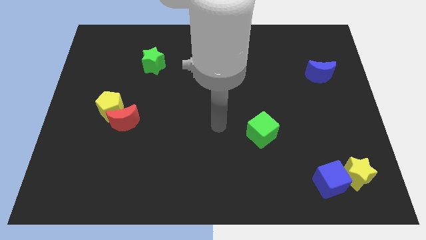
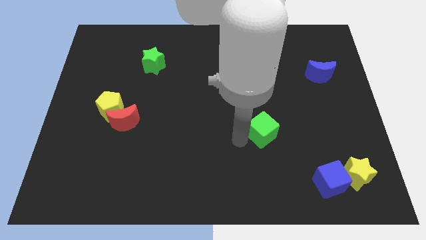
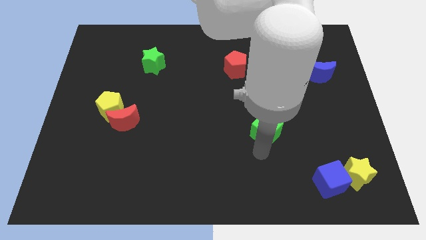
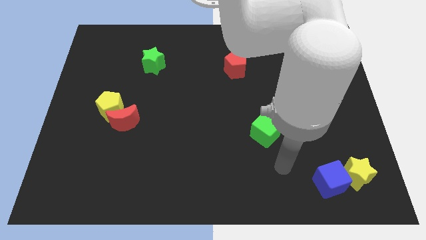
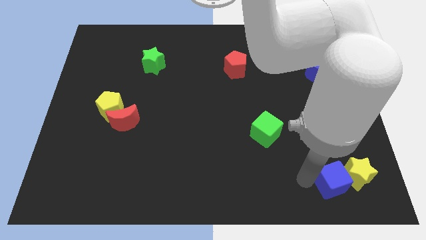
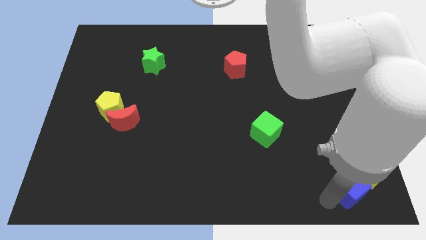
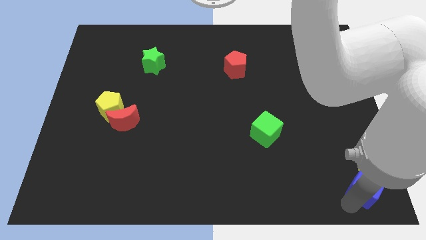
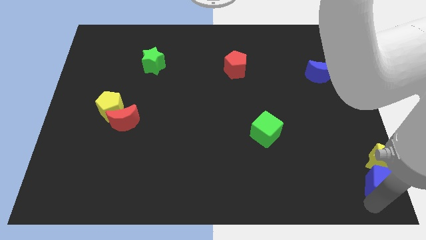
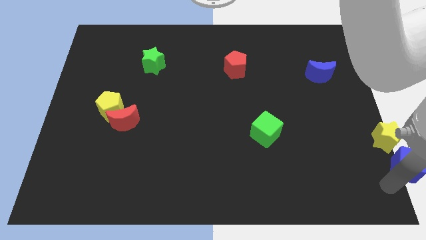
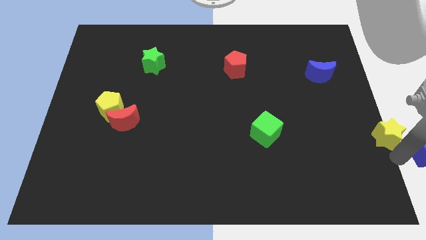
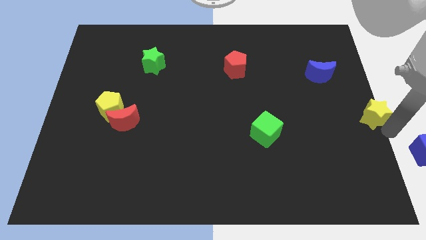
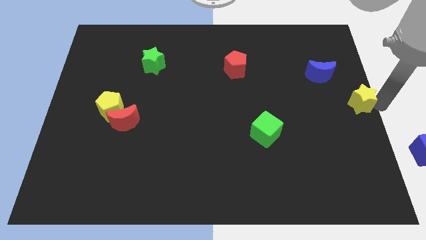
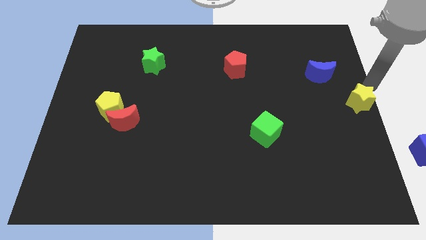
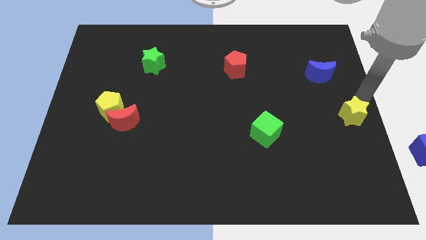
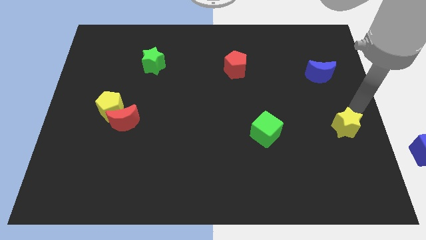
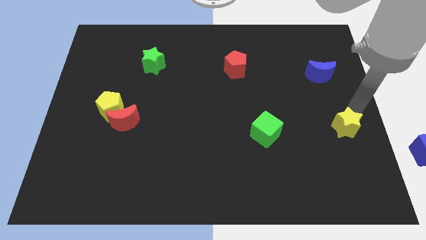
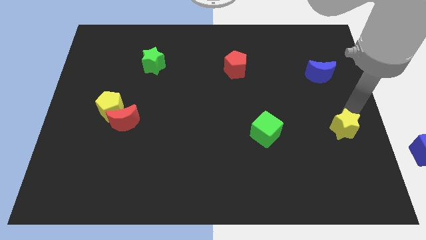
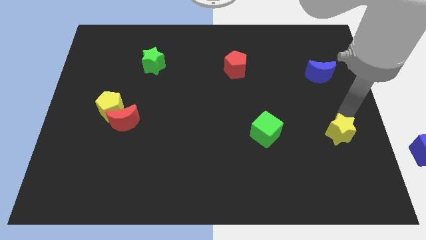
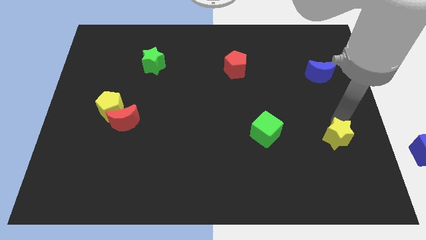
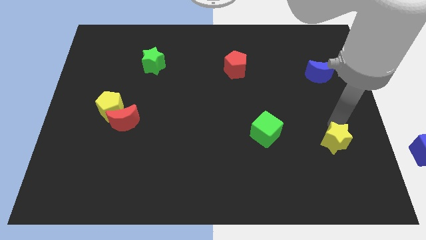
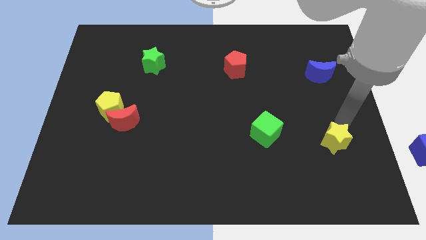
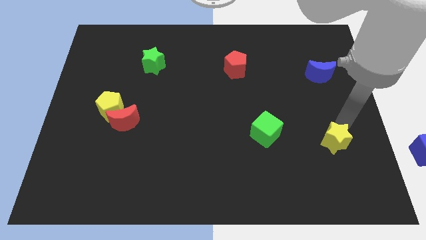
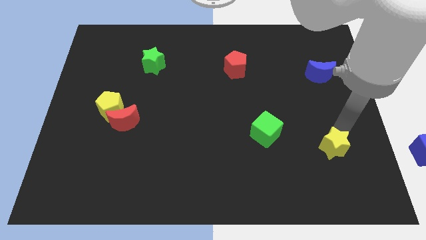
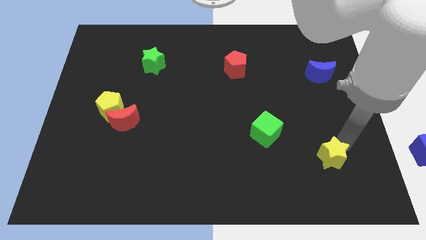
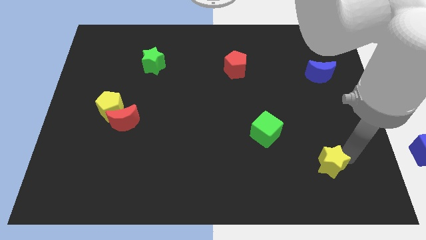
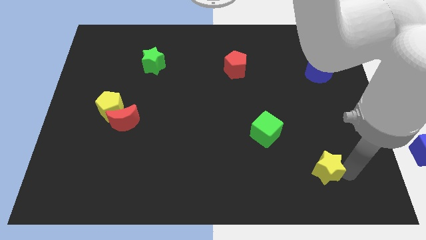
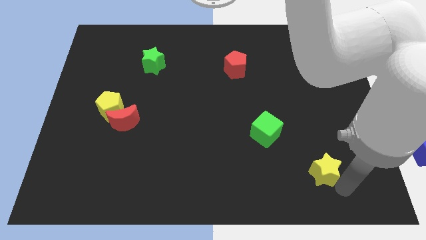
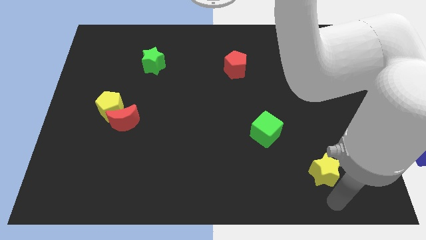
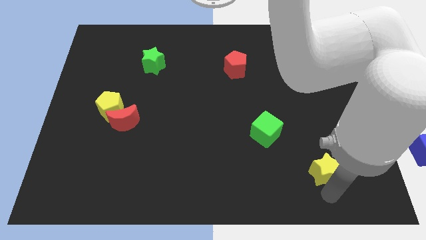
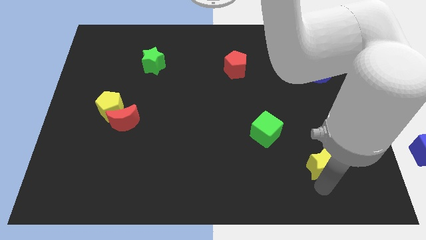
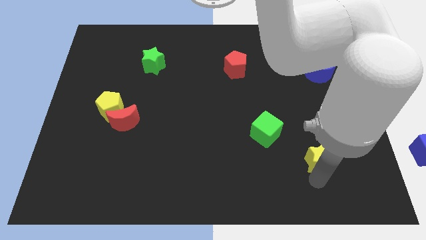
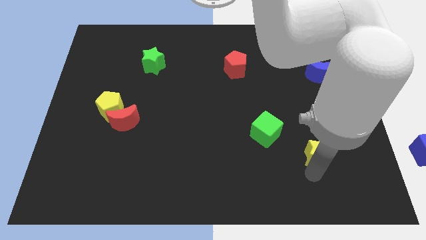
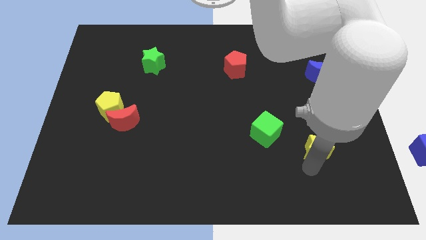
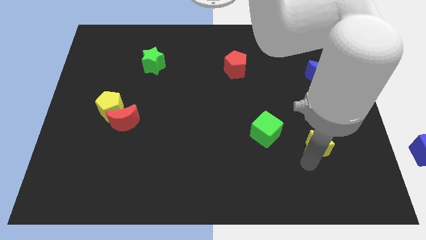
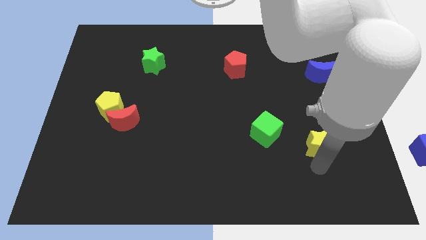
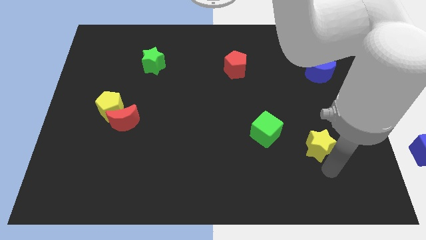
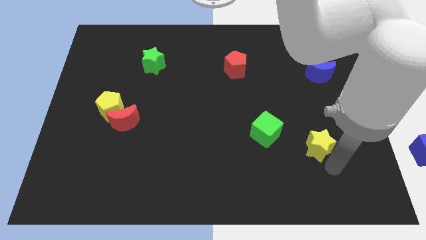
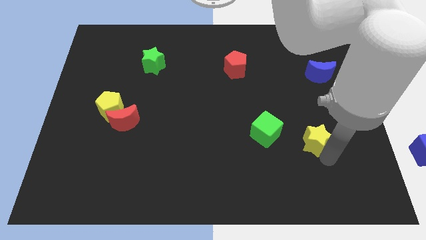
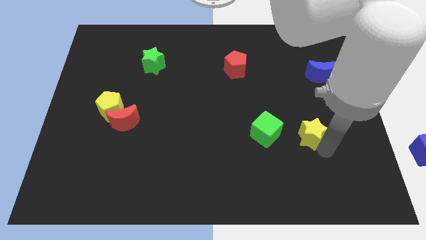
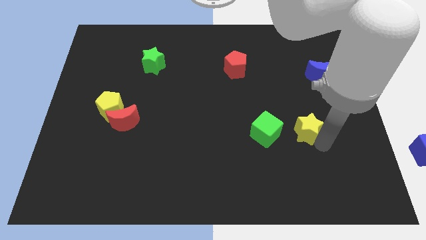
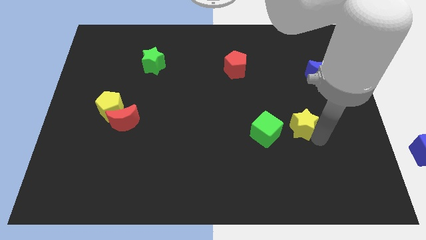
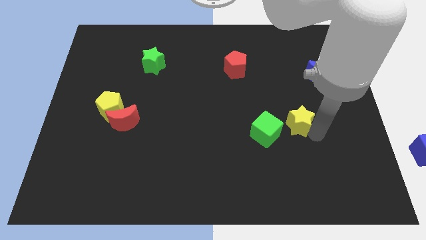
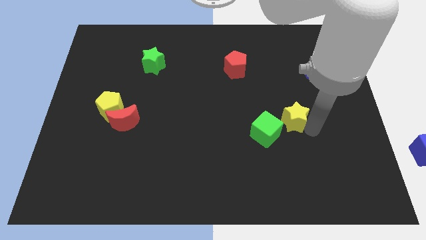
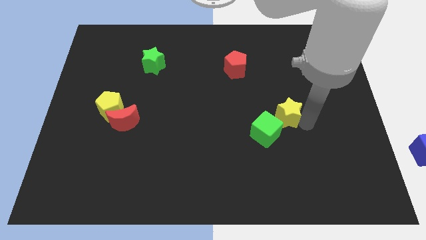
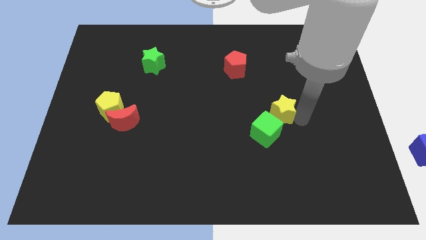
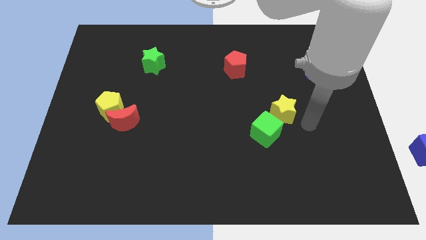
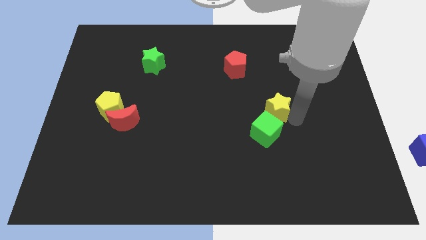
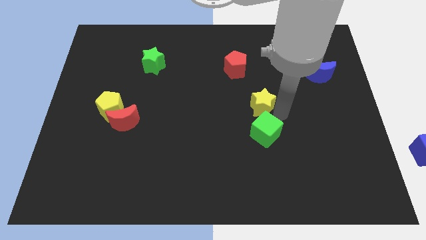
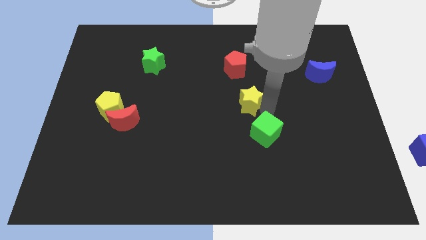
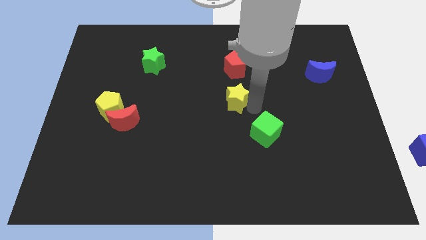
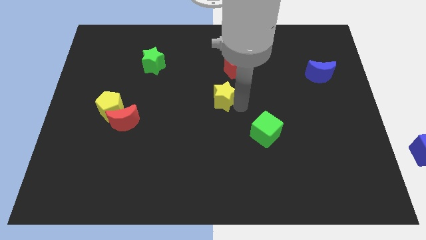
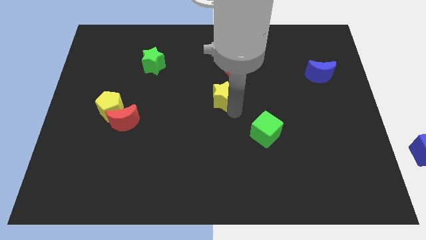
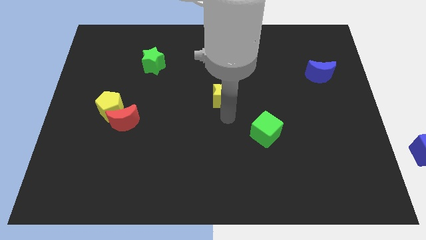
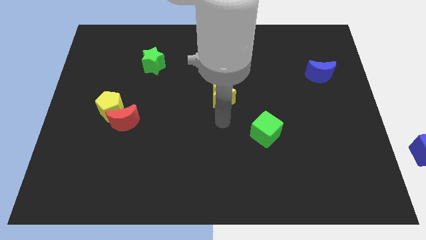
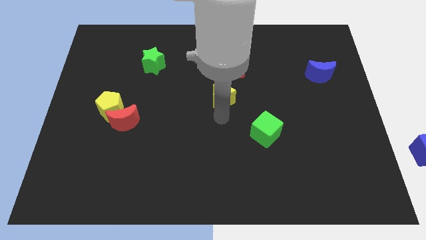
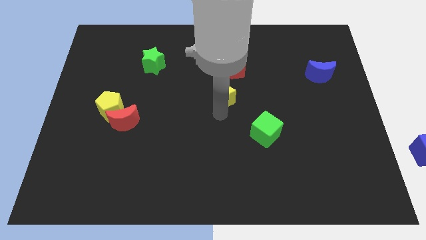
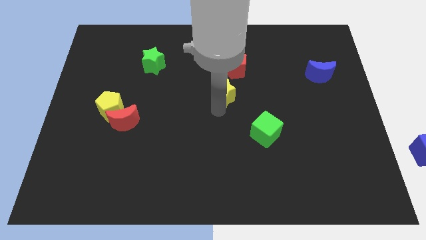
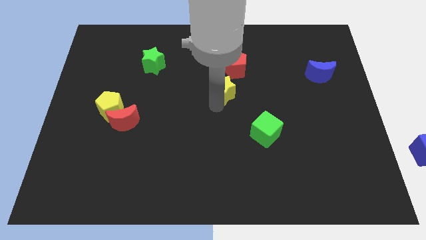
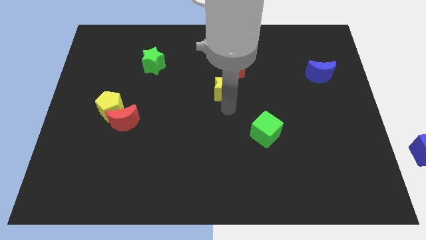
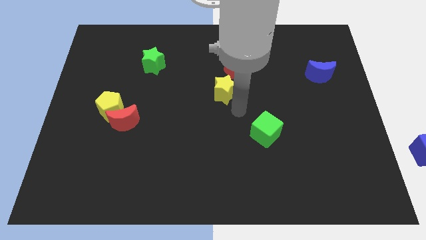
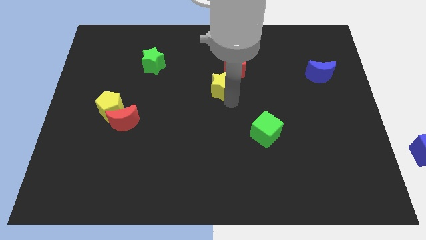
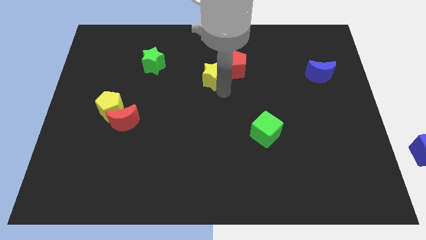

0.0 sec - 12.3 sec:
slide the yellow star left of the red pentagon
